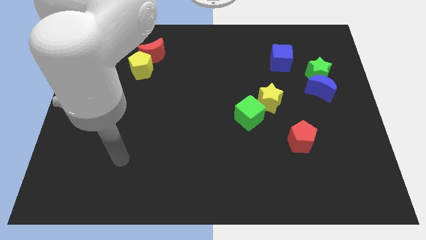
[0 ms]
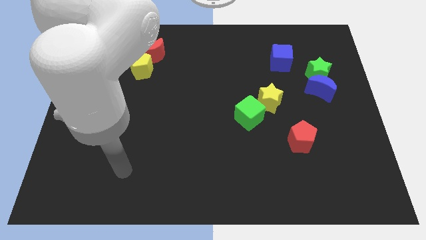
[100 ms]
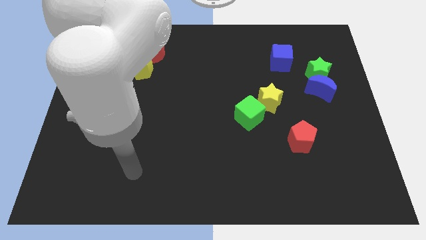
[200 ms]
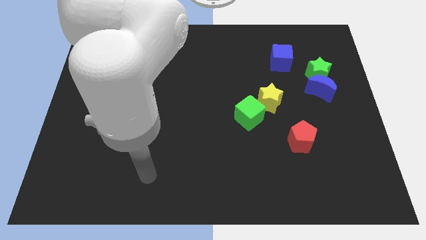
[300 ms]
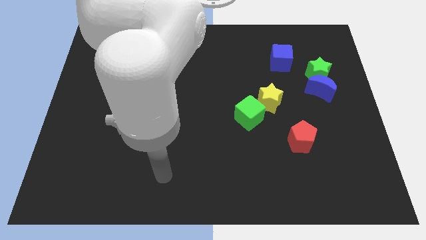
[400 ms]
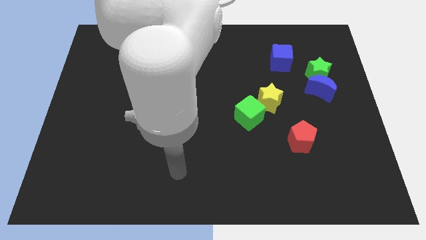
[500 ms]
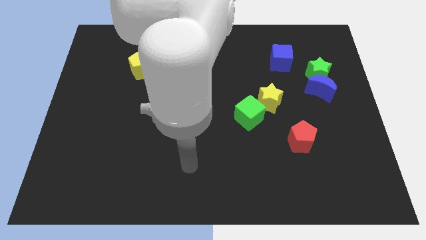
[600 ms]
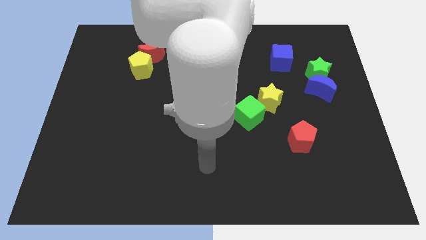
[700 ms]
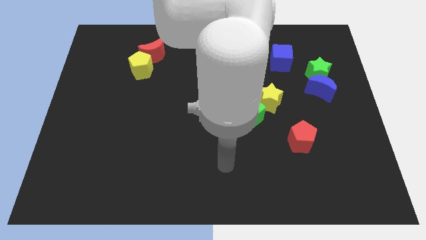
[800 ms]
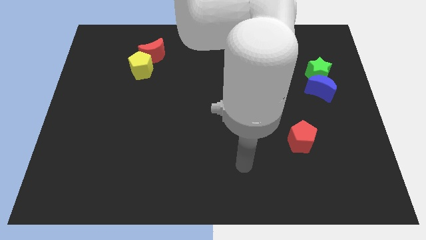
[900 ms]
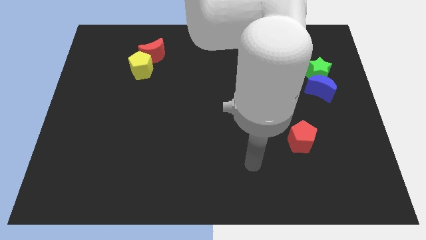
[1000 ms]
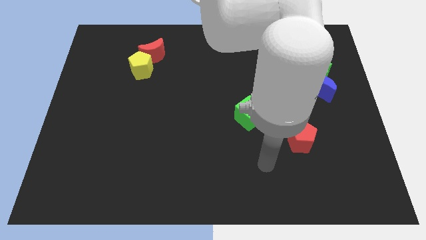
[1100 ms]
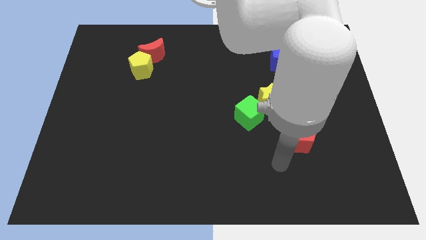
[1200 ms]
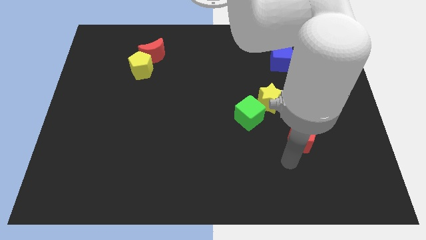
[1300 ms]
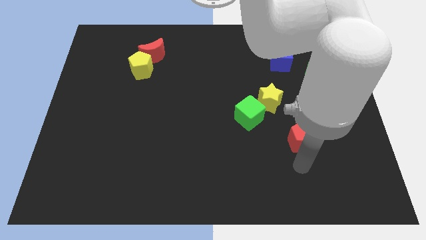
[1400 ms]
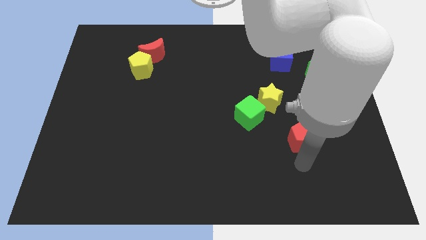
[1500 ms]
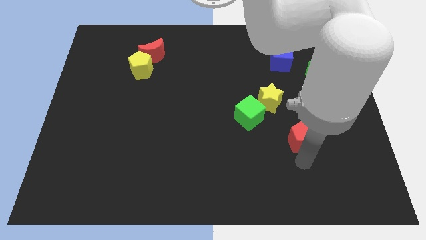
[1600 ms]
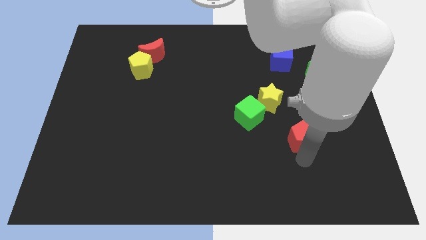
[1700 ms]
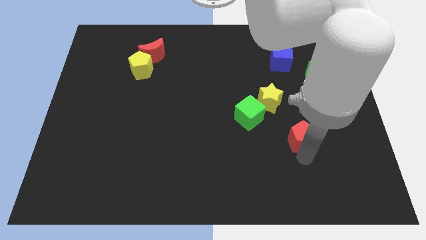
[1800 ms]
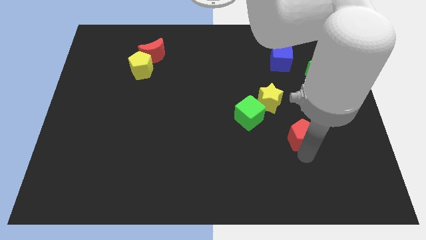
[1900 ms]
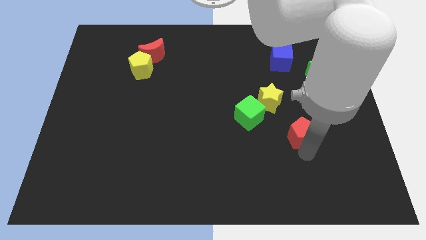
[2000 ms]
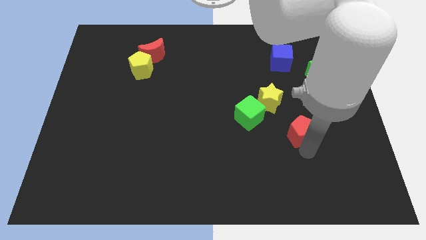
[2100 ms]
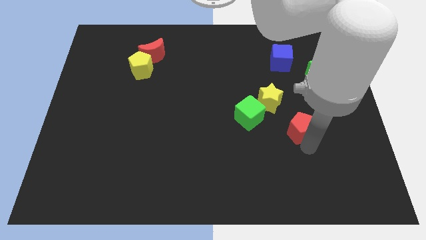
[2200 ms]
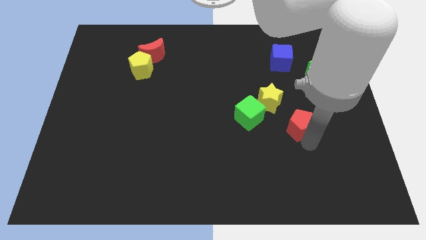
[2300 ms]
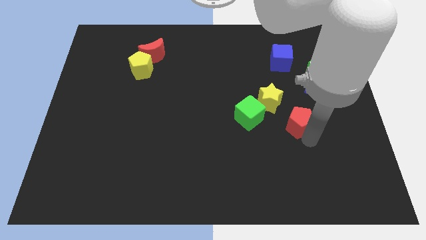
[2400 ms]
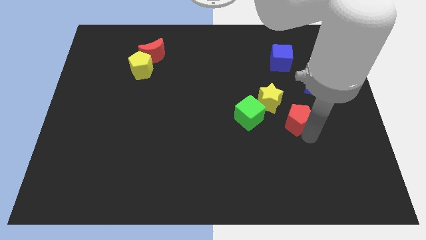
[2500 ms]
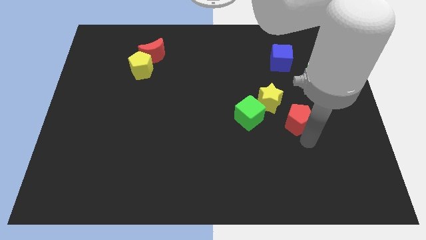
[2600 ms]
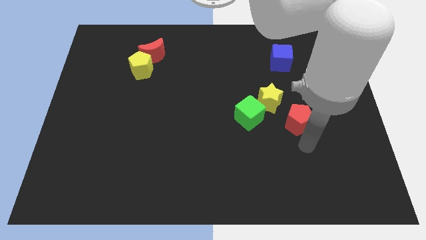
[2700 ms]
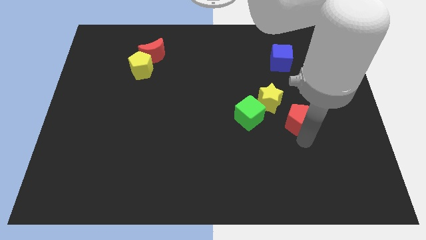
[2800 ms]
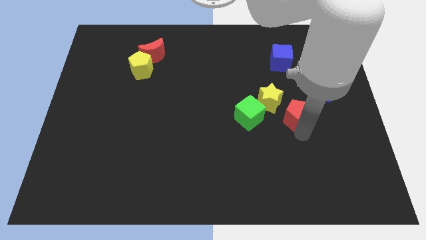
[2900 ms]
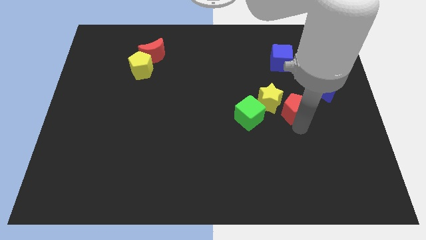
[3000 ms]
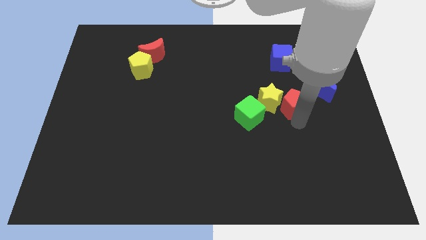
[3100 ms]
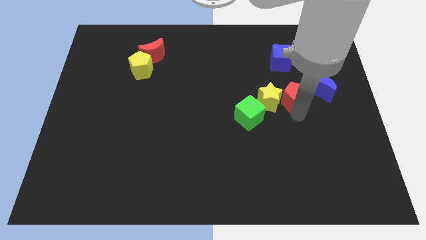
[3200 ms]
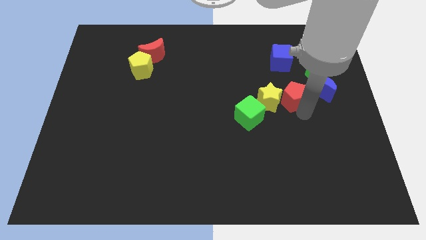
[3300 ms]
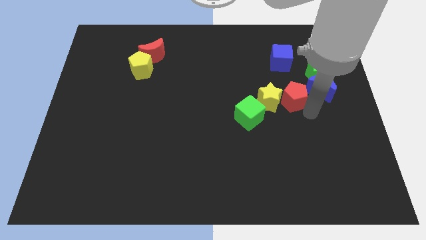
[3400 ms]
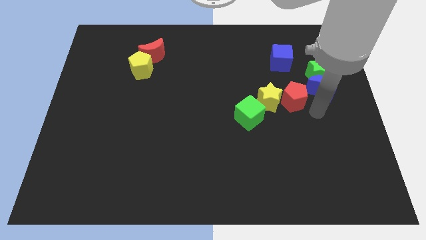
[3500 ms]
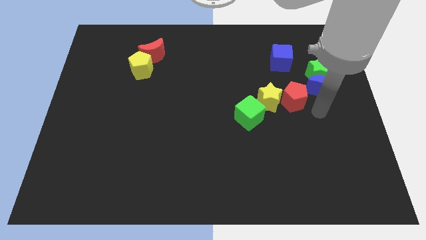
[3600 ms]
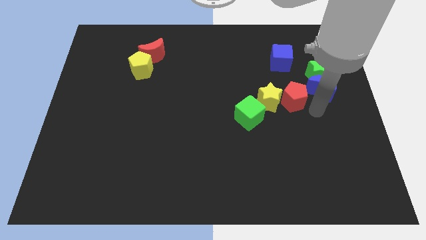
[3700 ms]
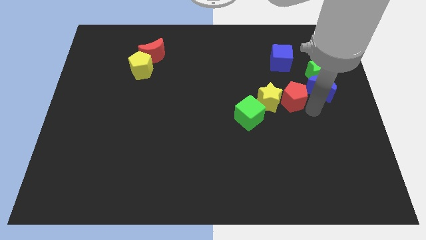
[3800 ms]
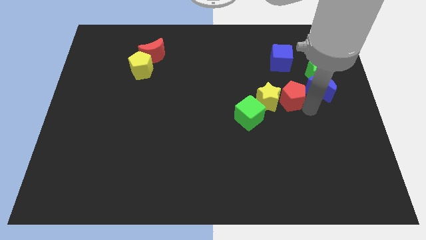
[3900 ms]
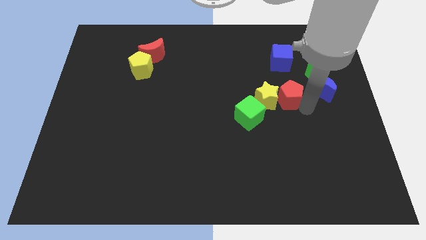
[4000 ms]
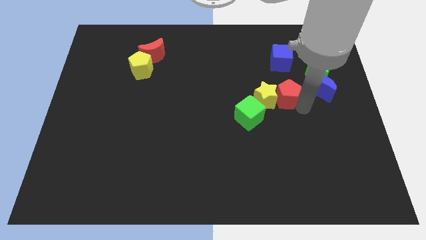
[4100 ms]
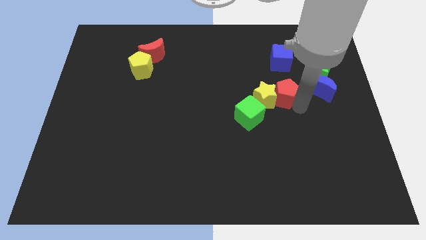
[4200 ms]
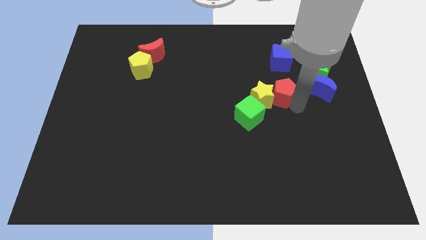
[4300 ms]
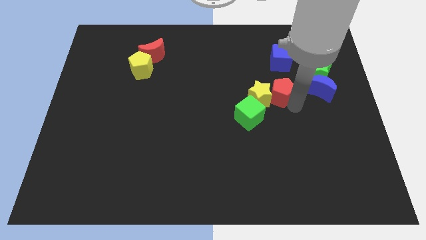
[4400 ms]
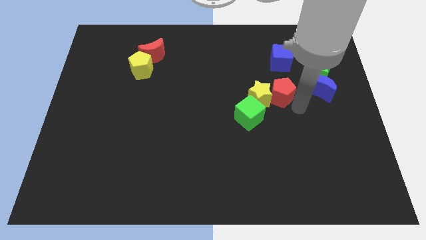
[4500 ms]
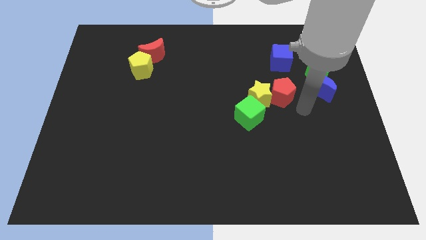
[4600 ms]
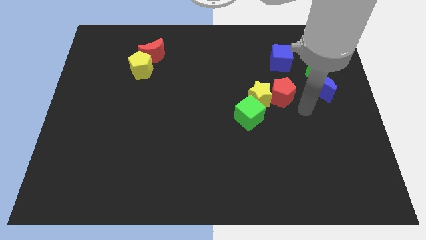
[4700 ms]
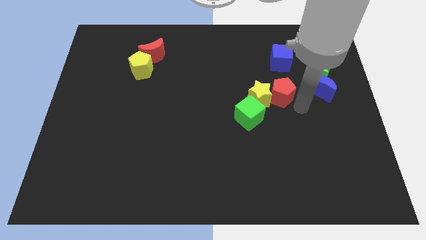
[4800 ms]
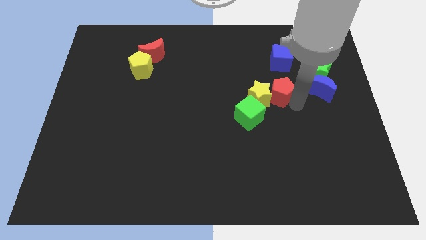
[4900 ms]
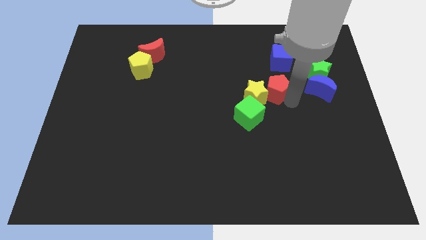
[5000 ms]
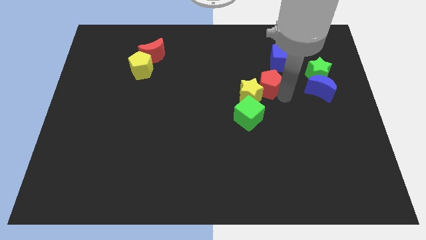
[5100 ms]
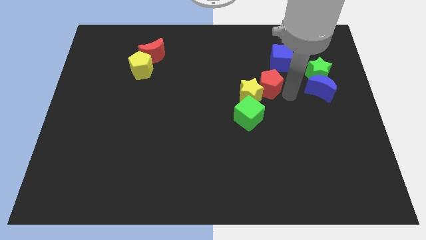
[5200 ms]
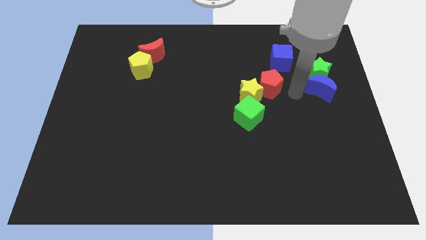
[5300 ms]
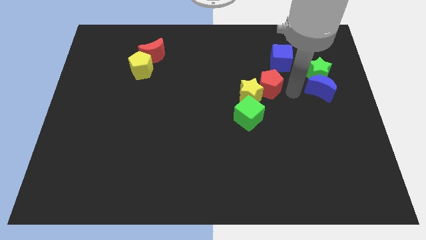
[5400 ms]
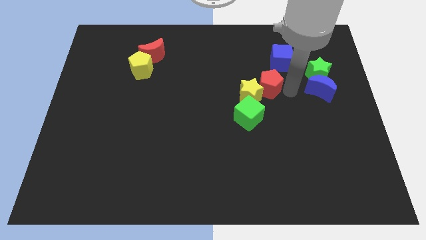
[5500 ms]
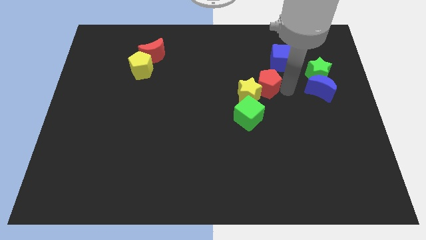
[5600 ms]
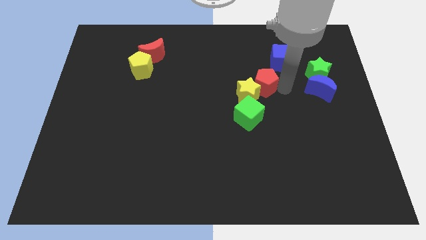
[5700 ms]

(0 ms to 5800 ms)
put the red pentagon above the green cube

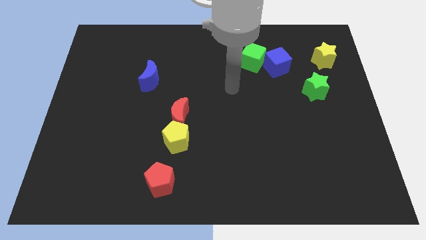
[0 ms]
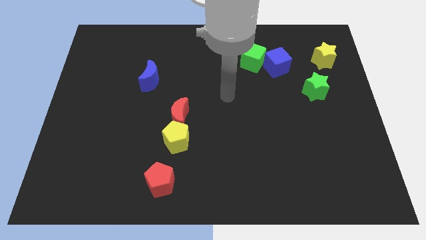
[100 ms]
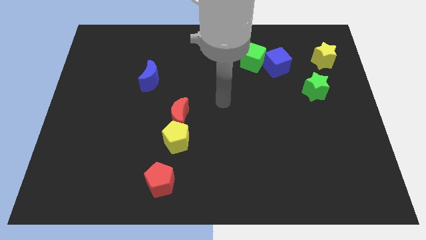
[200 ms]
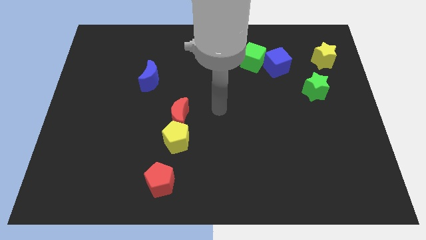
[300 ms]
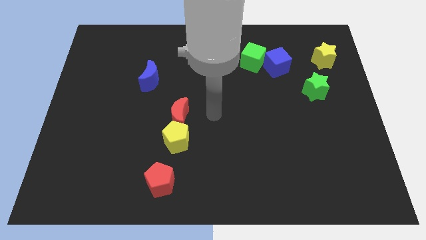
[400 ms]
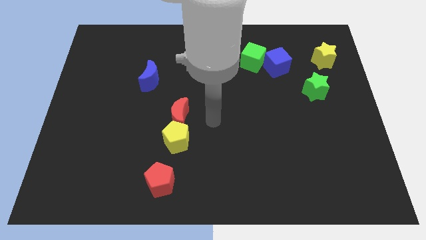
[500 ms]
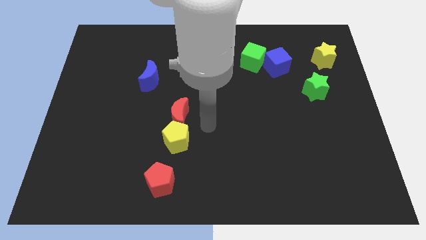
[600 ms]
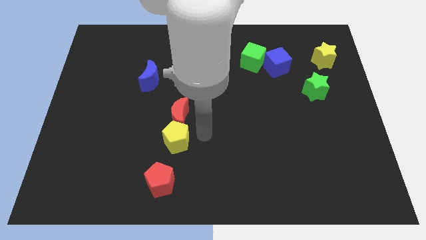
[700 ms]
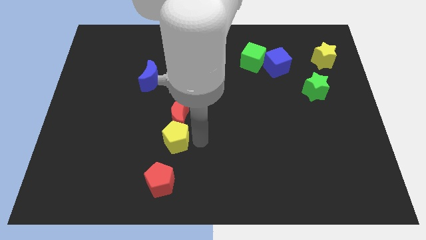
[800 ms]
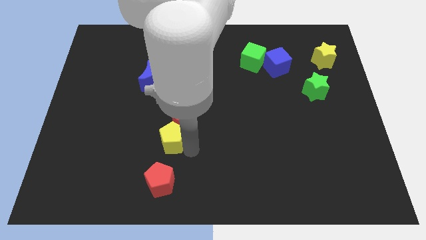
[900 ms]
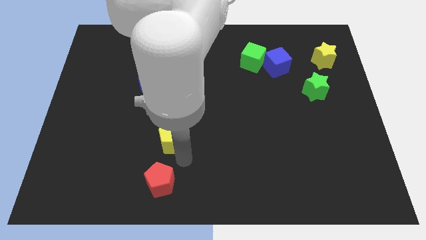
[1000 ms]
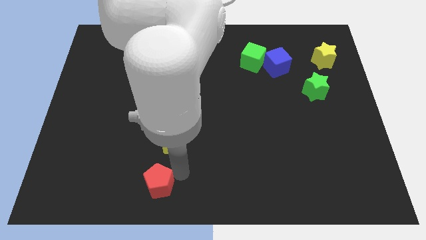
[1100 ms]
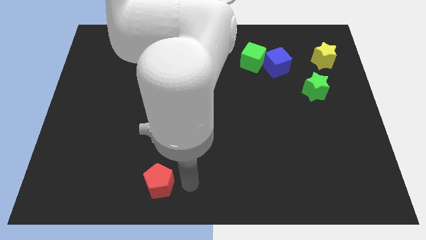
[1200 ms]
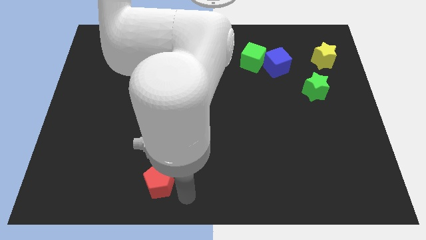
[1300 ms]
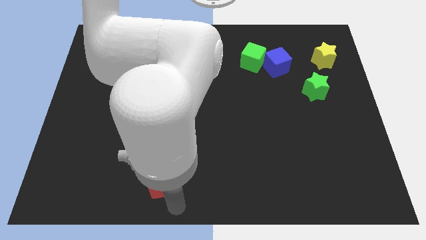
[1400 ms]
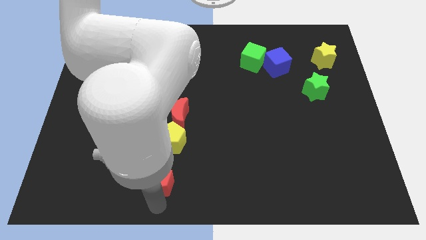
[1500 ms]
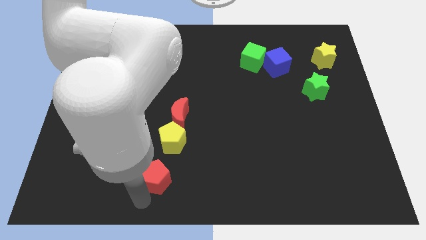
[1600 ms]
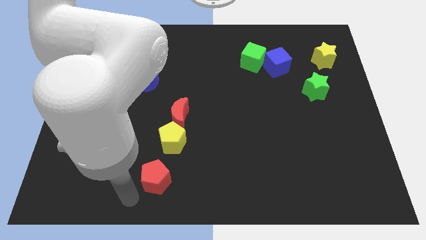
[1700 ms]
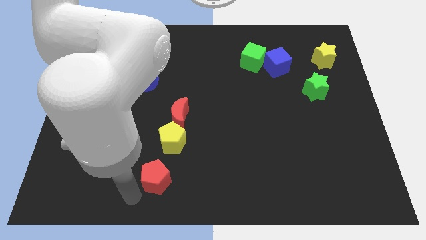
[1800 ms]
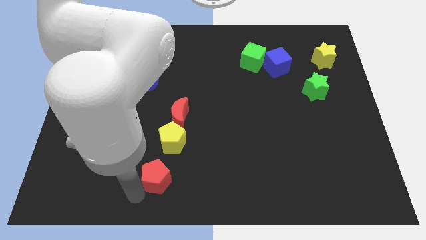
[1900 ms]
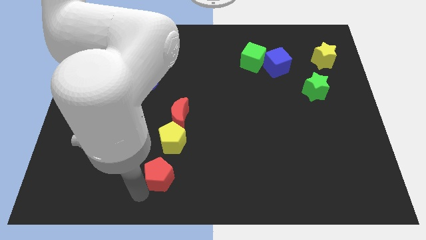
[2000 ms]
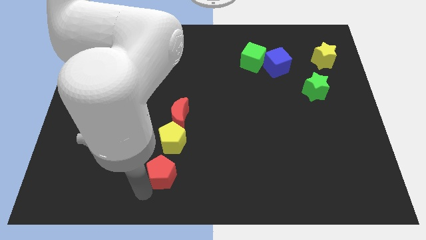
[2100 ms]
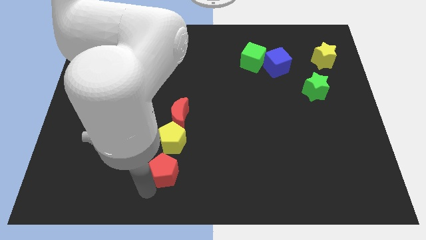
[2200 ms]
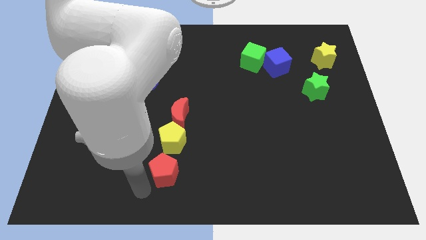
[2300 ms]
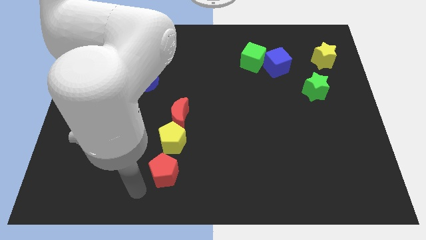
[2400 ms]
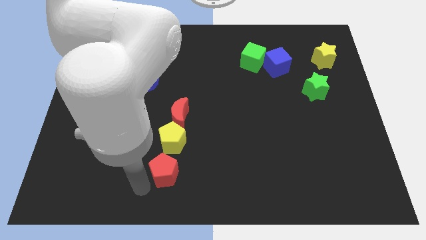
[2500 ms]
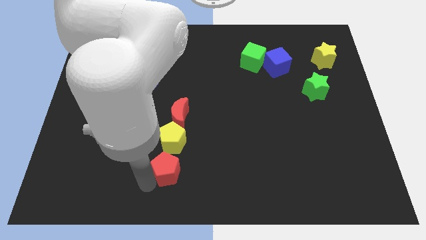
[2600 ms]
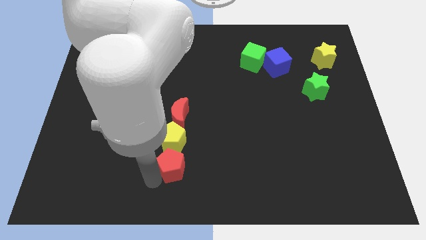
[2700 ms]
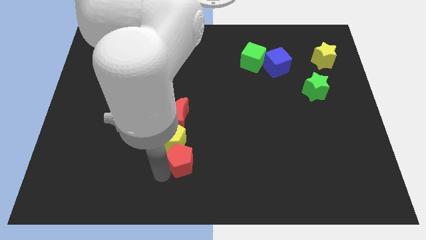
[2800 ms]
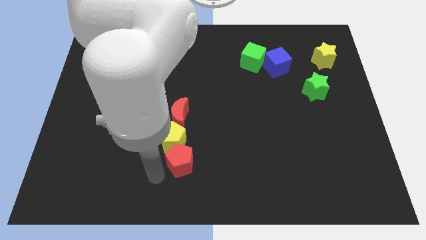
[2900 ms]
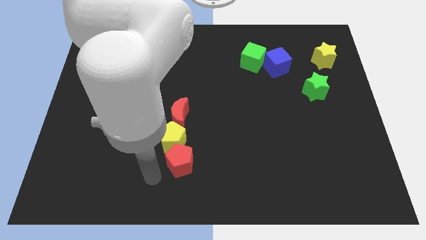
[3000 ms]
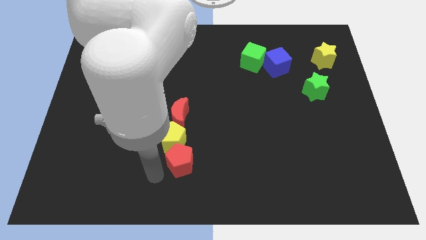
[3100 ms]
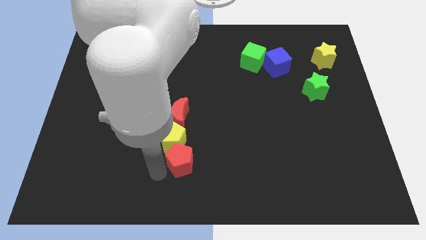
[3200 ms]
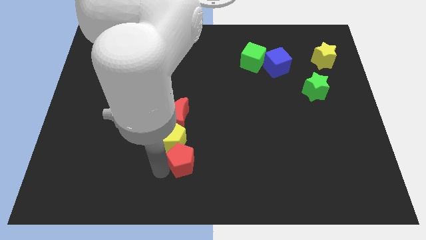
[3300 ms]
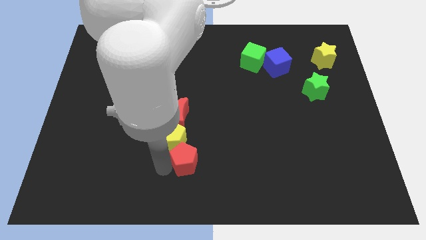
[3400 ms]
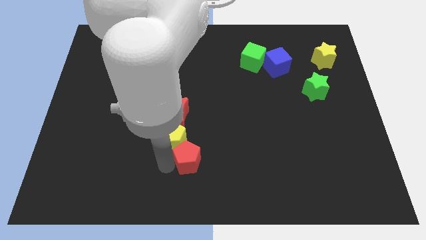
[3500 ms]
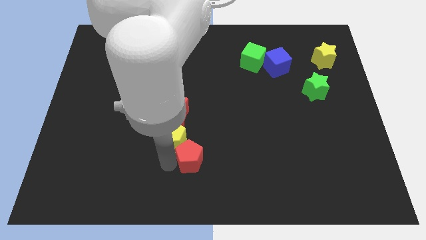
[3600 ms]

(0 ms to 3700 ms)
move the red pentagon to the right side of the yellow pentagon
